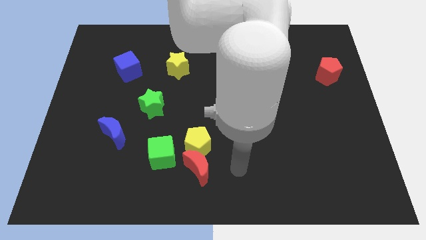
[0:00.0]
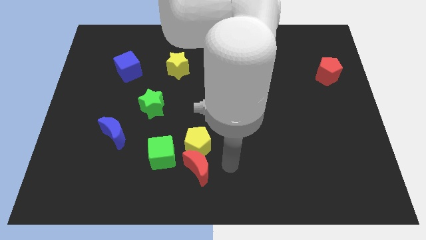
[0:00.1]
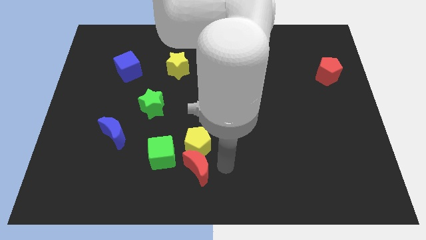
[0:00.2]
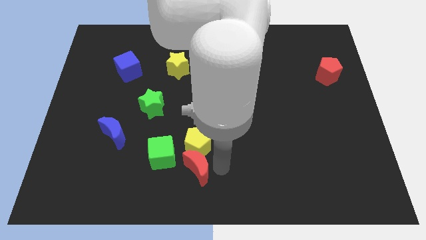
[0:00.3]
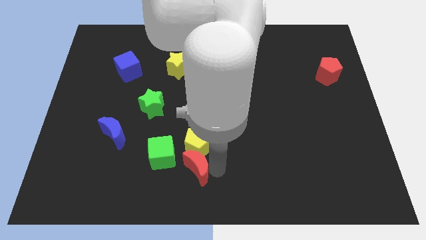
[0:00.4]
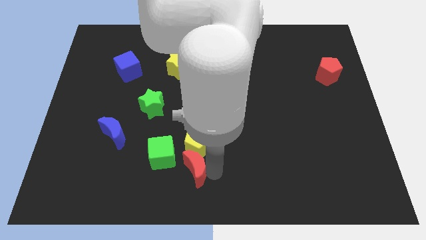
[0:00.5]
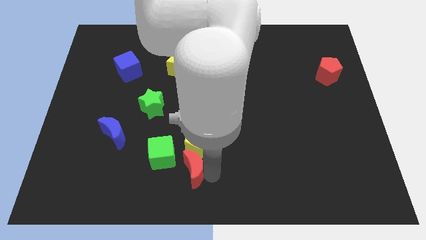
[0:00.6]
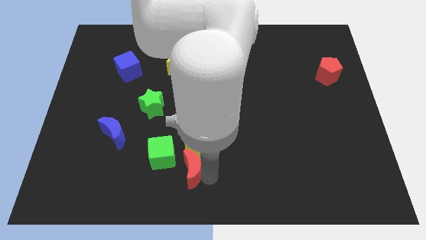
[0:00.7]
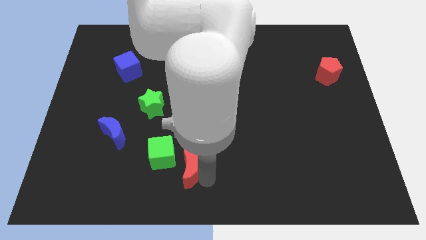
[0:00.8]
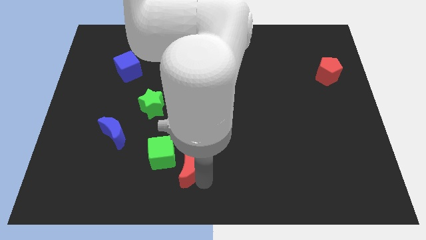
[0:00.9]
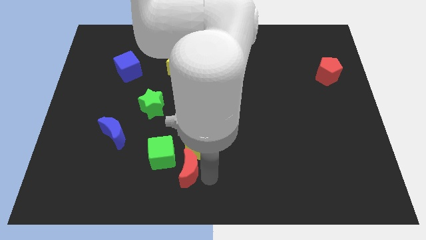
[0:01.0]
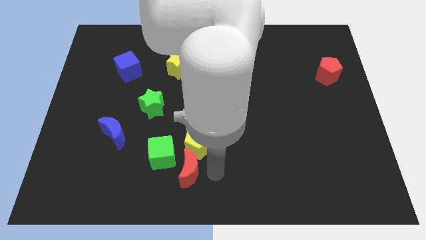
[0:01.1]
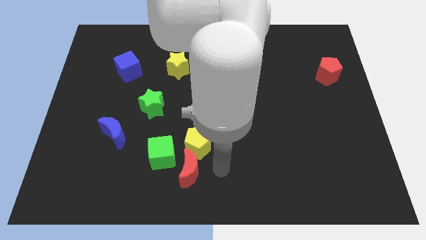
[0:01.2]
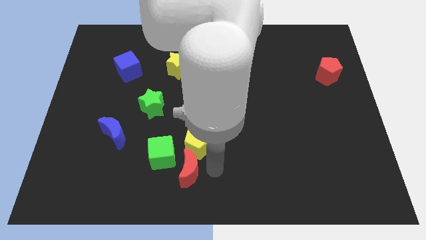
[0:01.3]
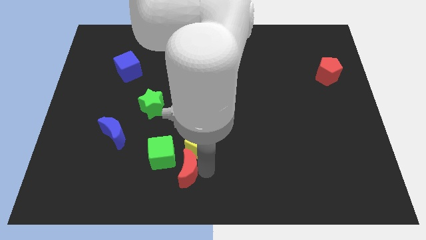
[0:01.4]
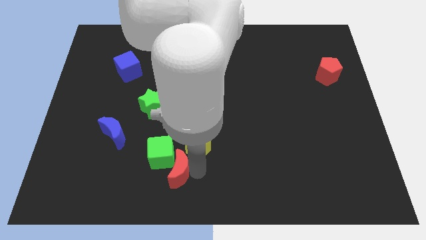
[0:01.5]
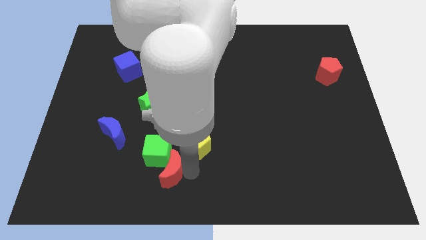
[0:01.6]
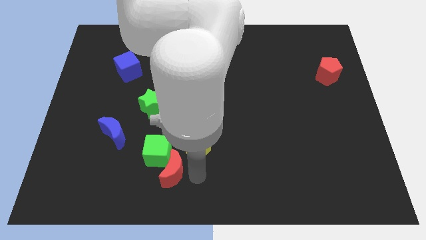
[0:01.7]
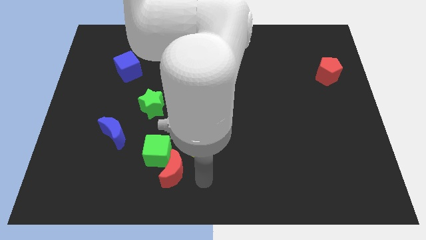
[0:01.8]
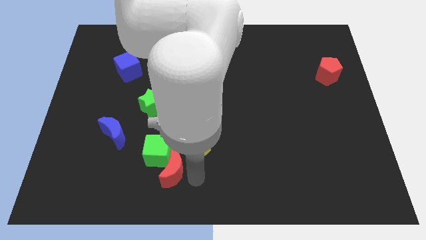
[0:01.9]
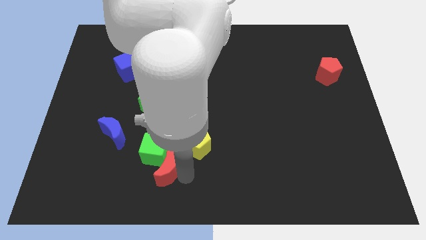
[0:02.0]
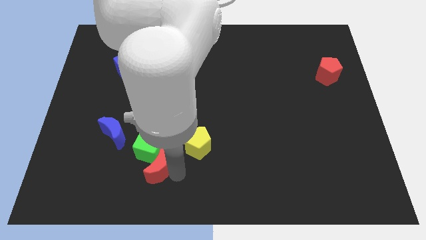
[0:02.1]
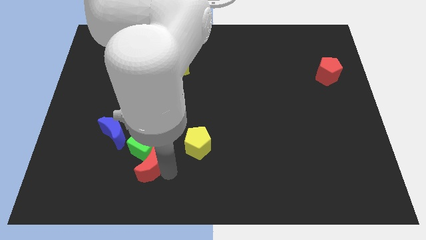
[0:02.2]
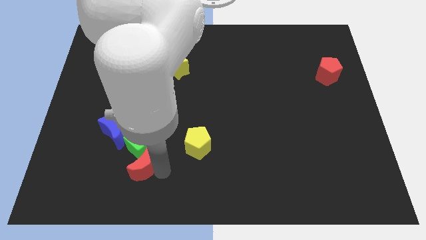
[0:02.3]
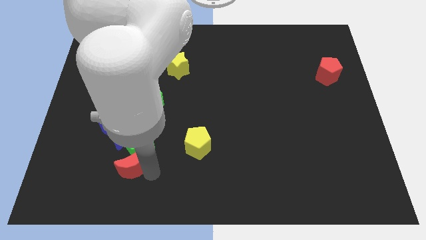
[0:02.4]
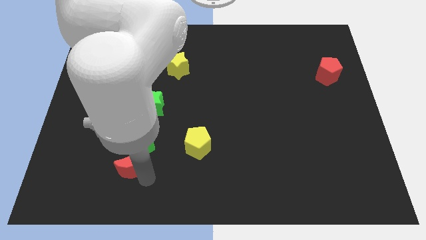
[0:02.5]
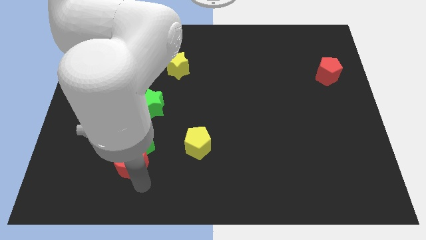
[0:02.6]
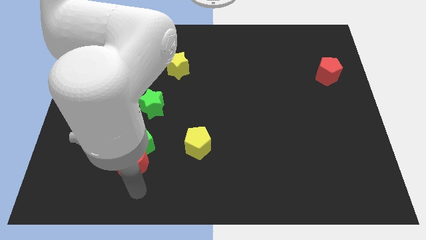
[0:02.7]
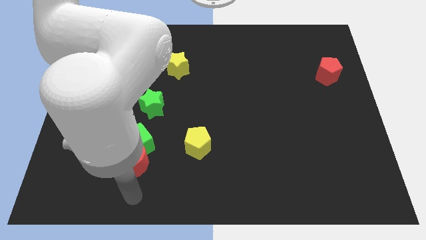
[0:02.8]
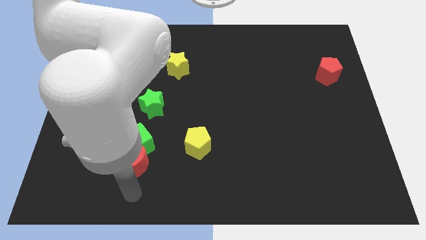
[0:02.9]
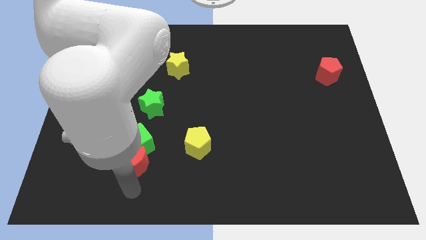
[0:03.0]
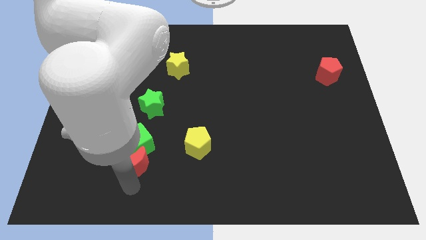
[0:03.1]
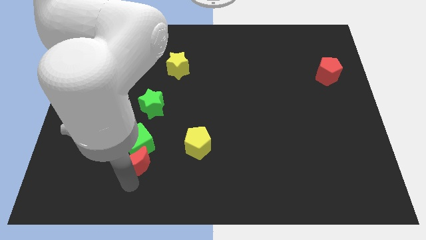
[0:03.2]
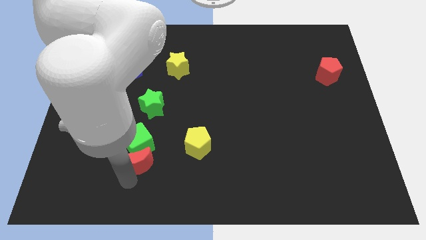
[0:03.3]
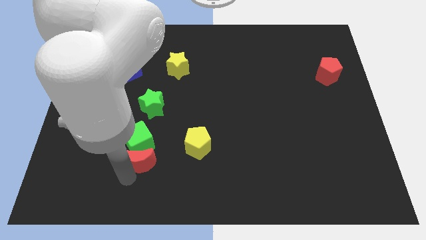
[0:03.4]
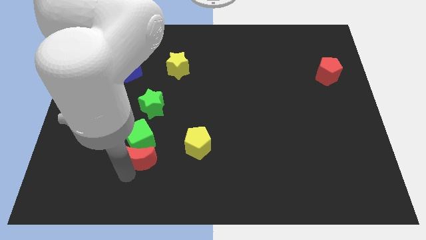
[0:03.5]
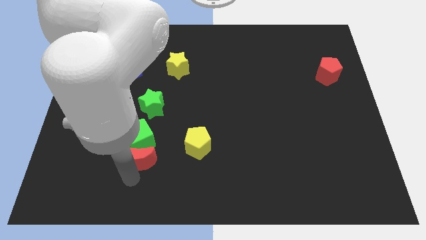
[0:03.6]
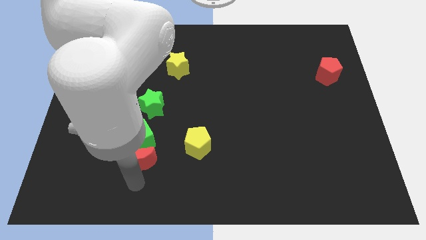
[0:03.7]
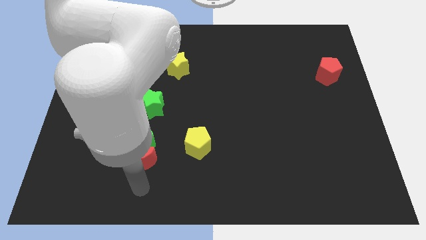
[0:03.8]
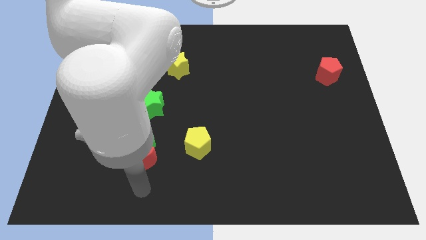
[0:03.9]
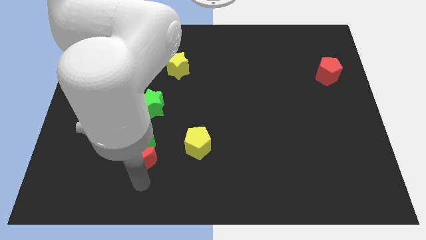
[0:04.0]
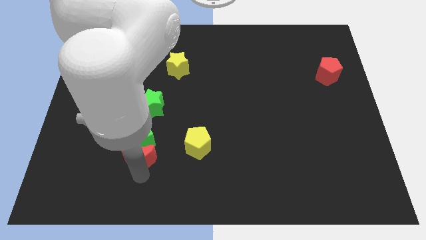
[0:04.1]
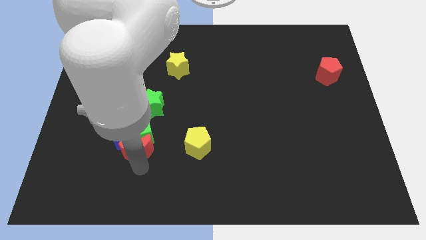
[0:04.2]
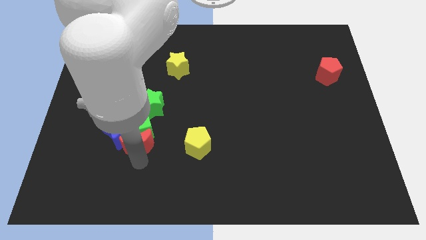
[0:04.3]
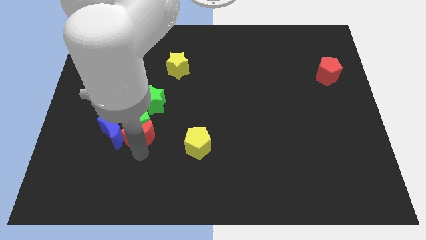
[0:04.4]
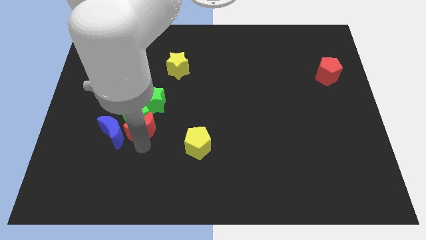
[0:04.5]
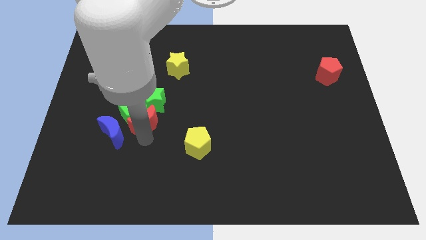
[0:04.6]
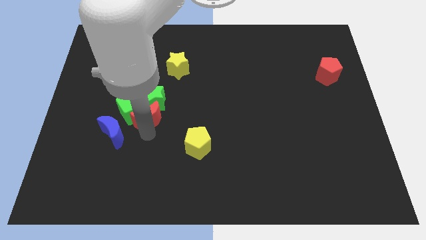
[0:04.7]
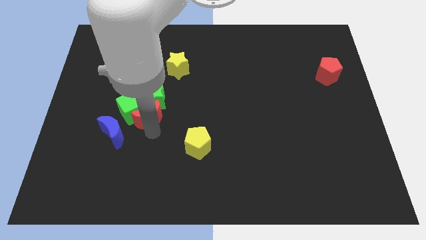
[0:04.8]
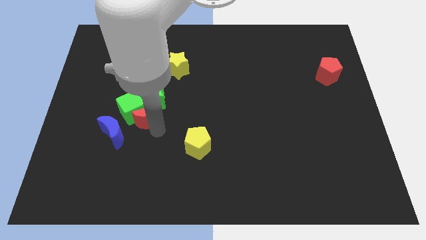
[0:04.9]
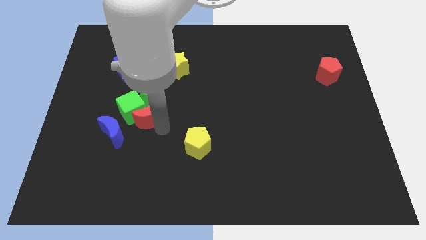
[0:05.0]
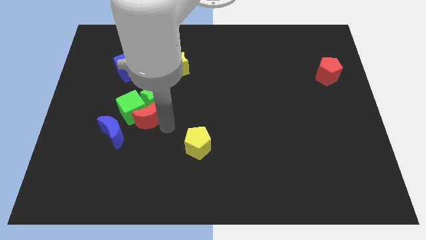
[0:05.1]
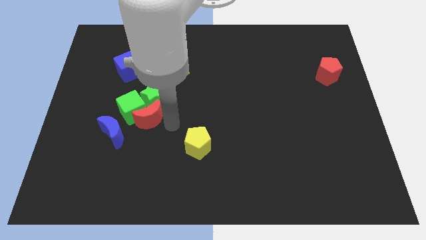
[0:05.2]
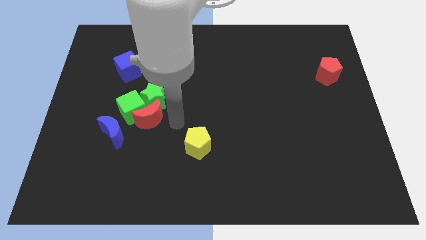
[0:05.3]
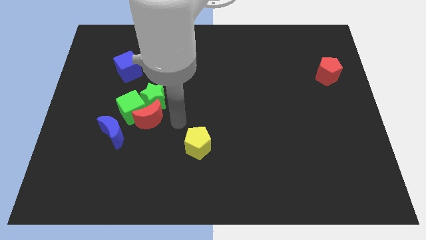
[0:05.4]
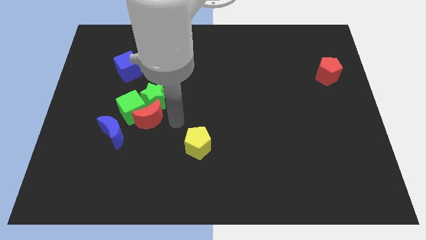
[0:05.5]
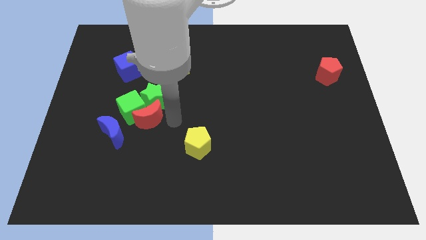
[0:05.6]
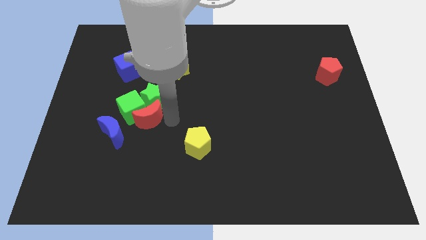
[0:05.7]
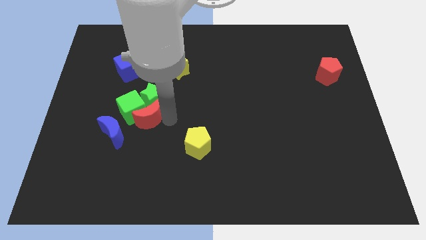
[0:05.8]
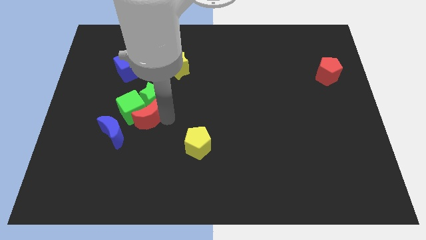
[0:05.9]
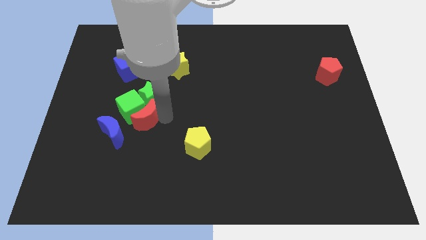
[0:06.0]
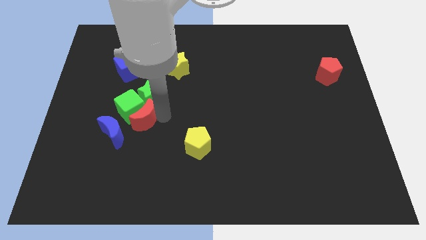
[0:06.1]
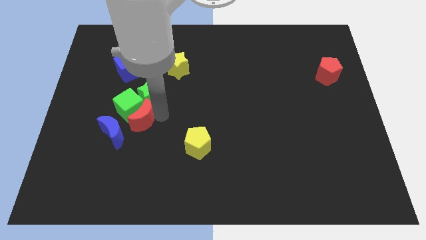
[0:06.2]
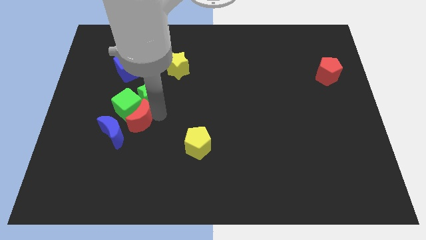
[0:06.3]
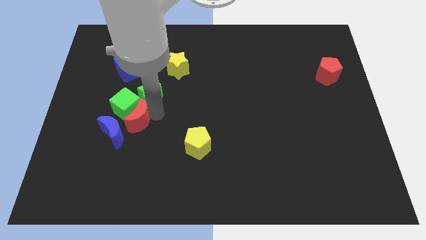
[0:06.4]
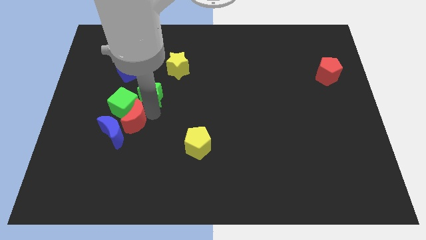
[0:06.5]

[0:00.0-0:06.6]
slide the red moon to the top of the blue moon
